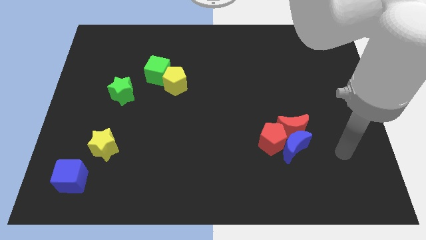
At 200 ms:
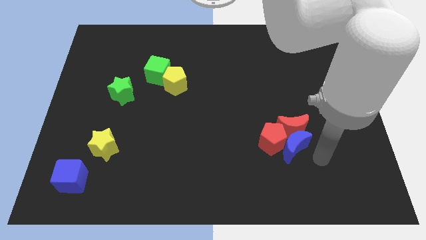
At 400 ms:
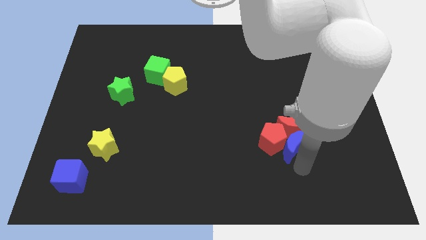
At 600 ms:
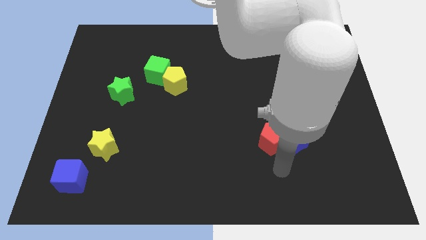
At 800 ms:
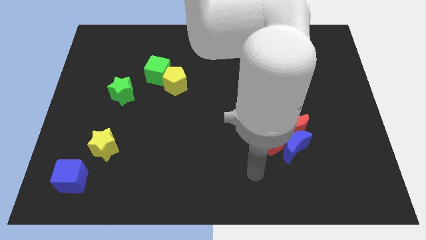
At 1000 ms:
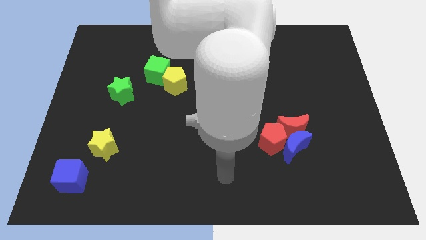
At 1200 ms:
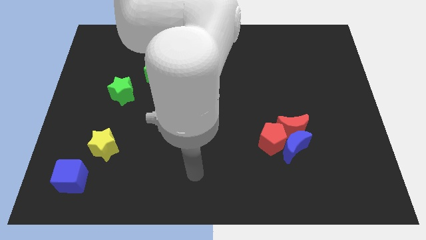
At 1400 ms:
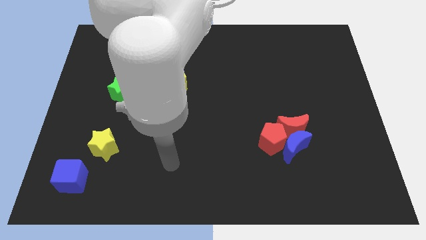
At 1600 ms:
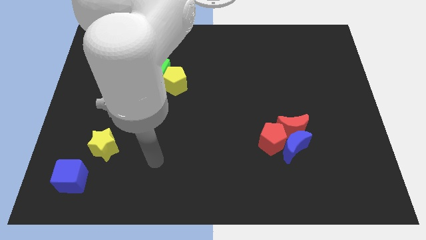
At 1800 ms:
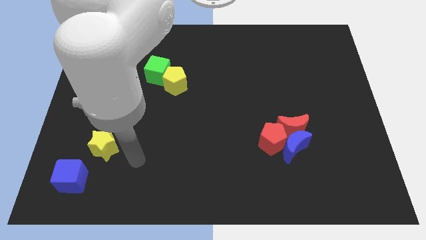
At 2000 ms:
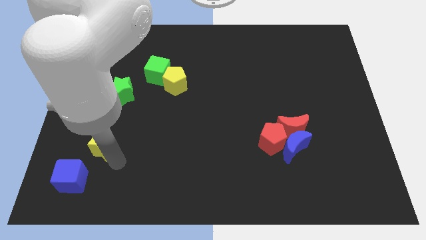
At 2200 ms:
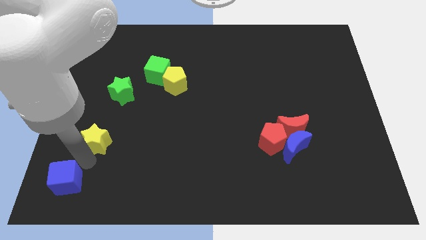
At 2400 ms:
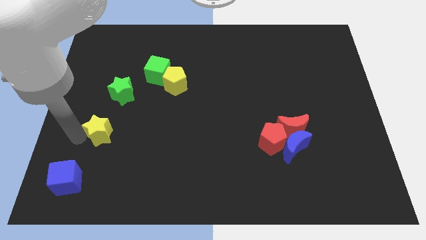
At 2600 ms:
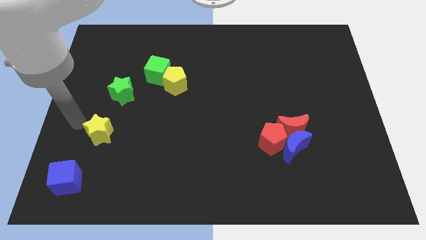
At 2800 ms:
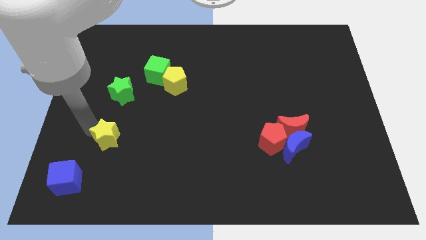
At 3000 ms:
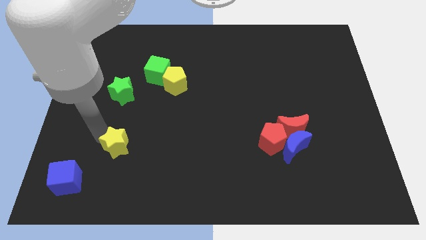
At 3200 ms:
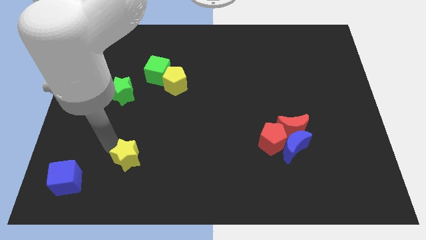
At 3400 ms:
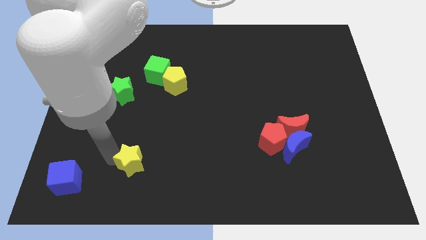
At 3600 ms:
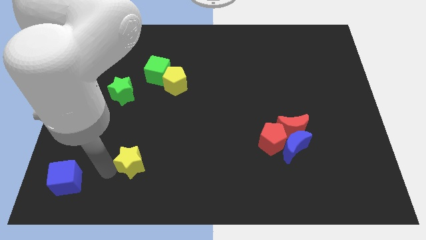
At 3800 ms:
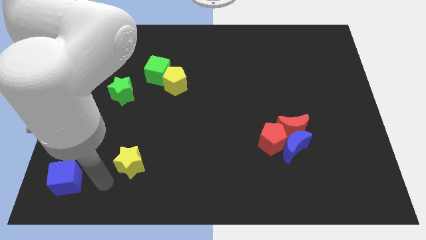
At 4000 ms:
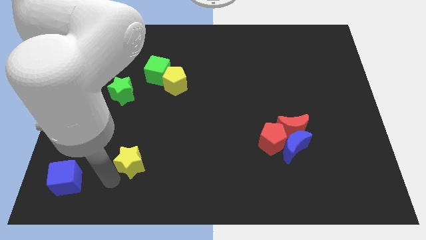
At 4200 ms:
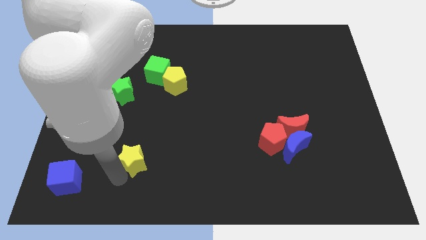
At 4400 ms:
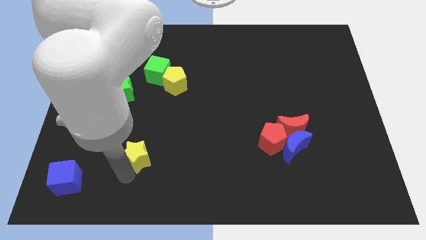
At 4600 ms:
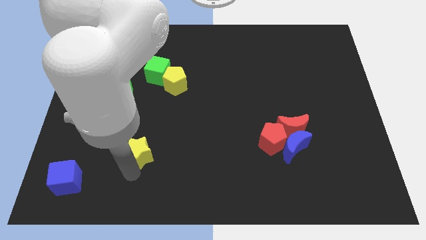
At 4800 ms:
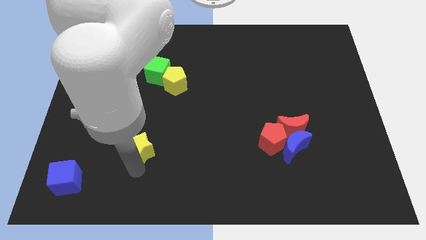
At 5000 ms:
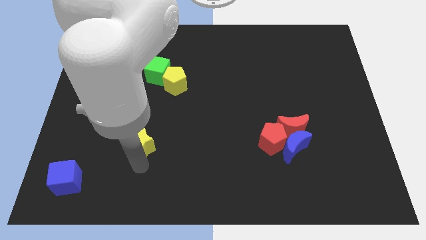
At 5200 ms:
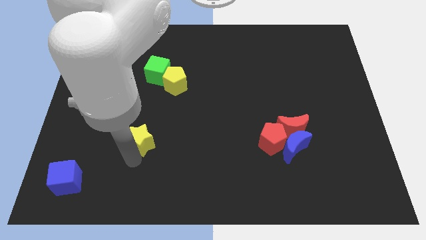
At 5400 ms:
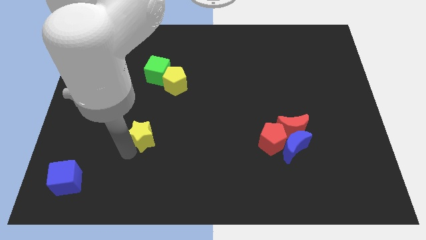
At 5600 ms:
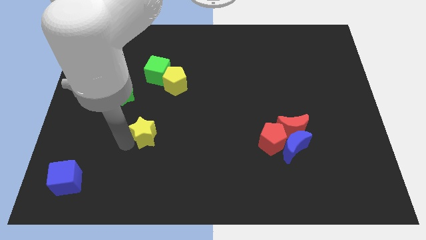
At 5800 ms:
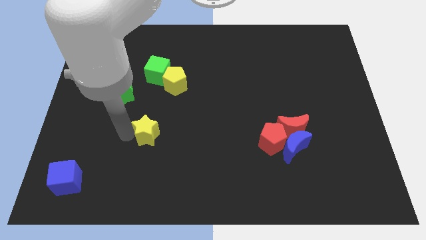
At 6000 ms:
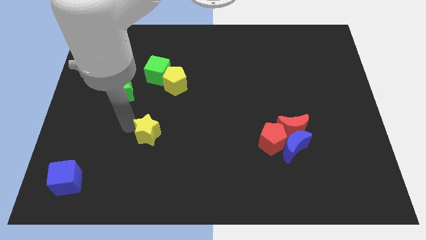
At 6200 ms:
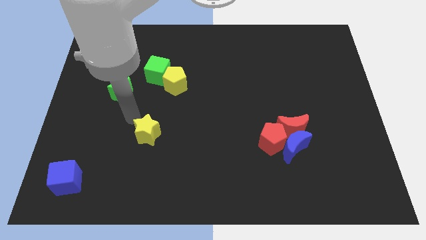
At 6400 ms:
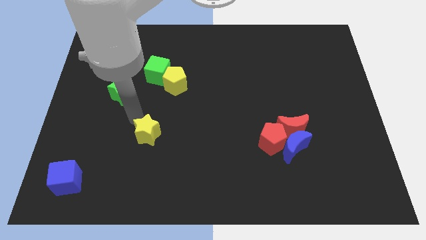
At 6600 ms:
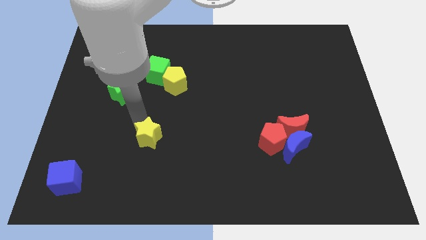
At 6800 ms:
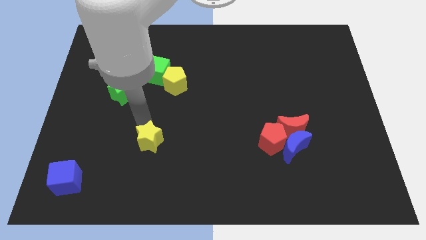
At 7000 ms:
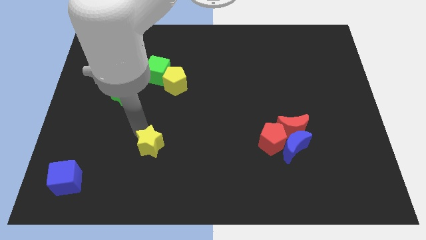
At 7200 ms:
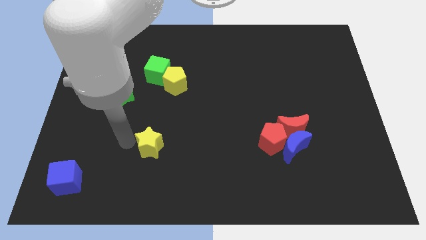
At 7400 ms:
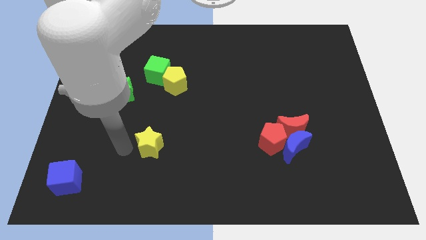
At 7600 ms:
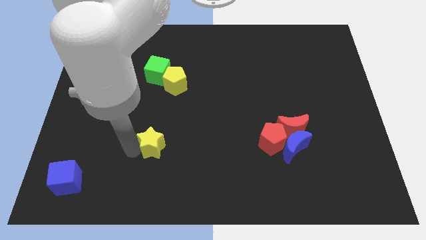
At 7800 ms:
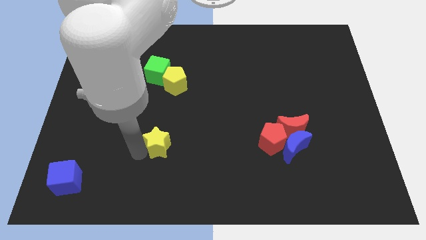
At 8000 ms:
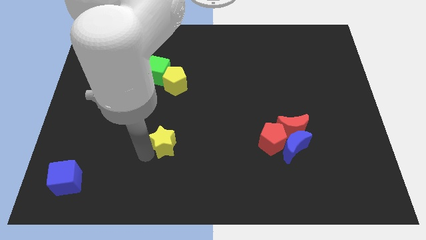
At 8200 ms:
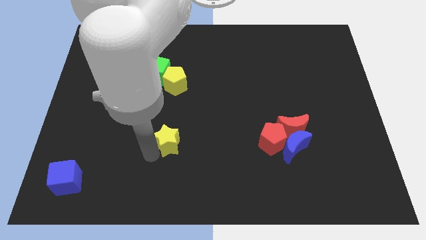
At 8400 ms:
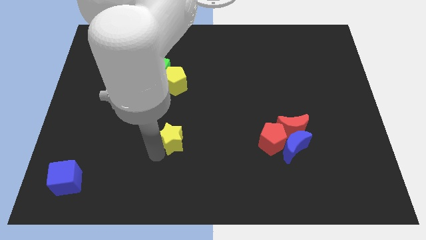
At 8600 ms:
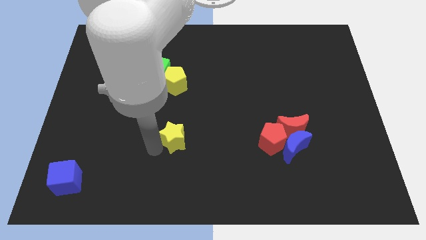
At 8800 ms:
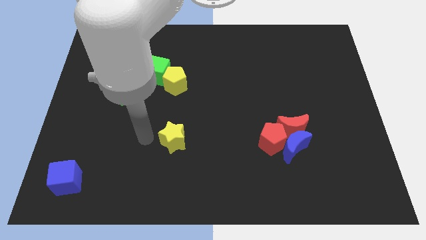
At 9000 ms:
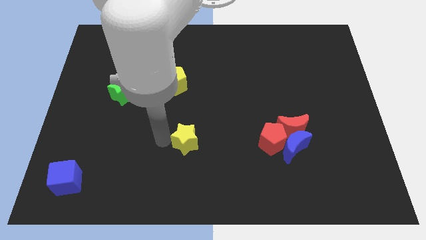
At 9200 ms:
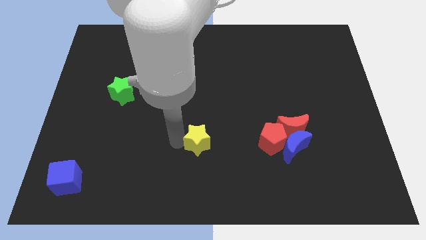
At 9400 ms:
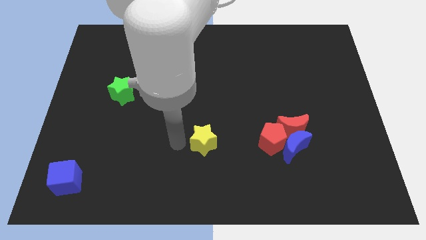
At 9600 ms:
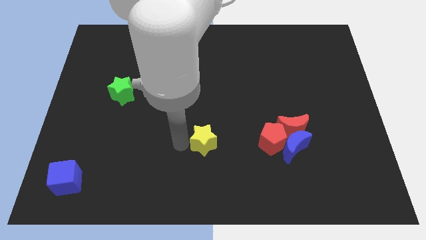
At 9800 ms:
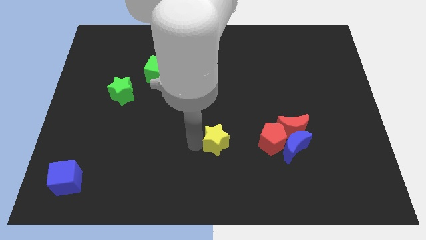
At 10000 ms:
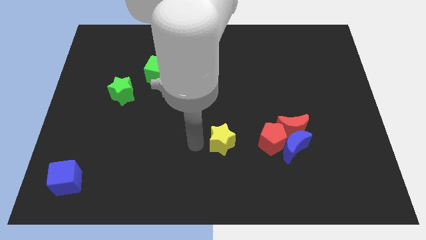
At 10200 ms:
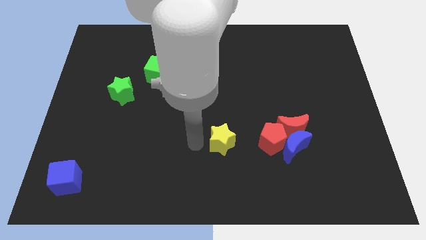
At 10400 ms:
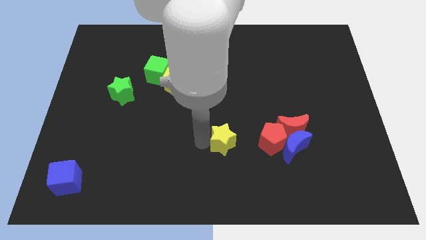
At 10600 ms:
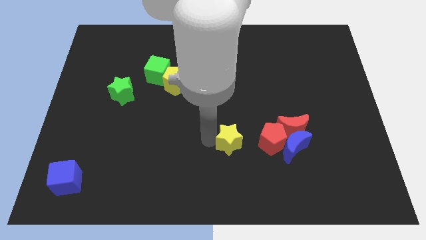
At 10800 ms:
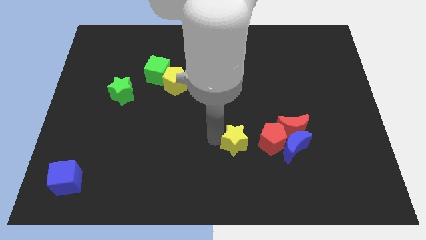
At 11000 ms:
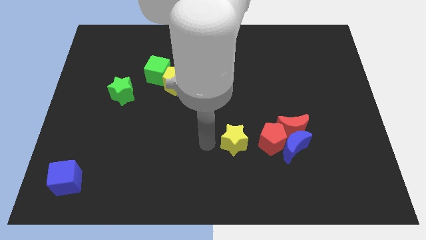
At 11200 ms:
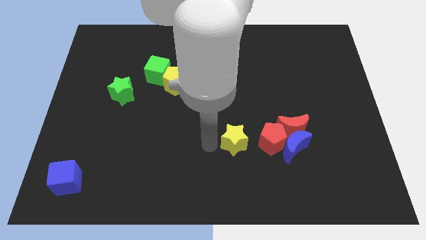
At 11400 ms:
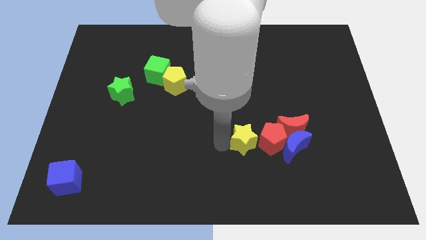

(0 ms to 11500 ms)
put the yellow star close to the red pentagon
